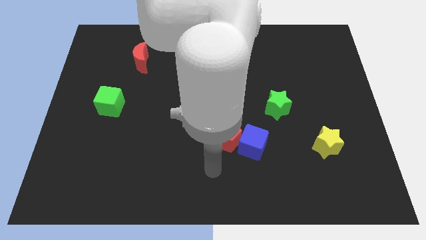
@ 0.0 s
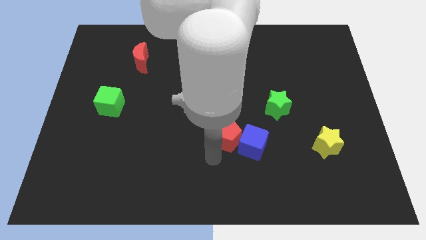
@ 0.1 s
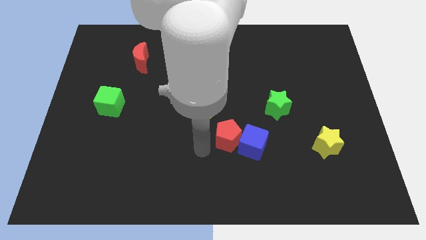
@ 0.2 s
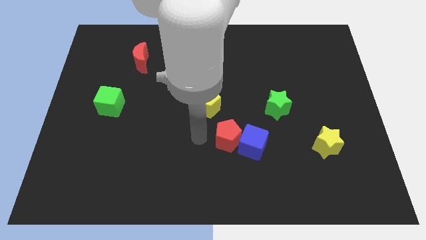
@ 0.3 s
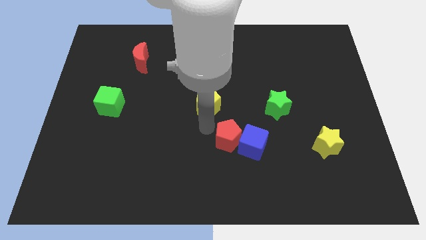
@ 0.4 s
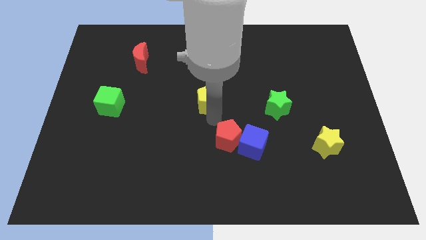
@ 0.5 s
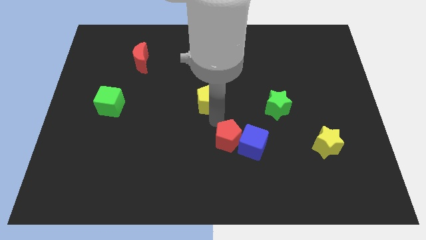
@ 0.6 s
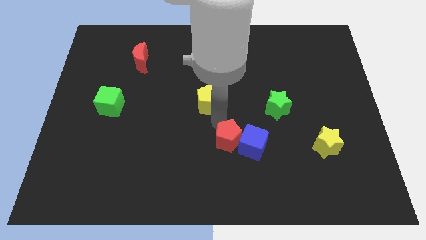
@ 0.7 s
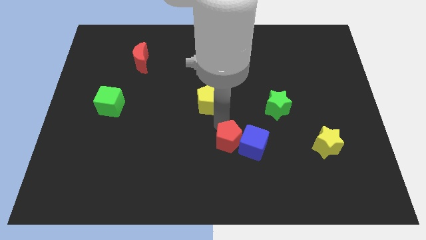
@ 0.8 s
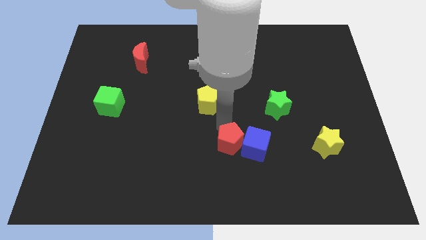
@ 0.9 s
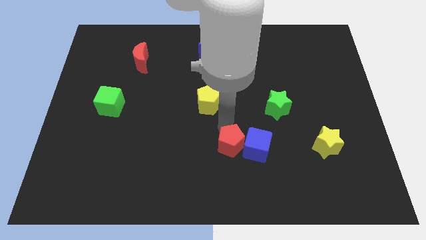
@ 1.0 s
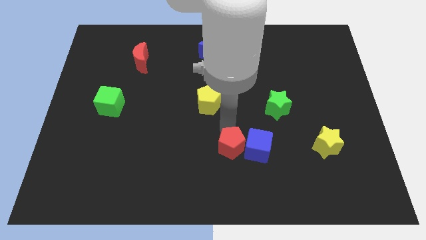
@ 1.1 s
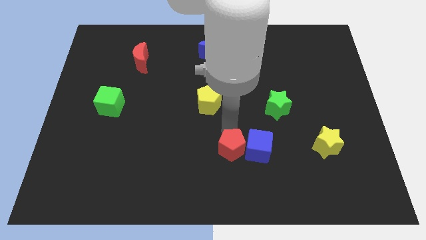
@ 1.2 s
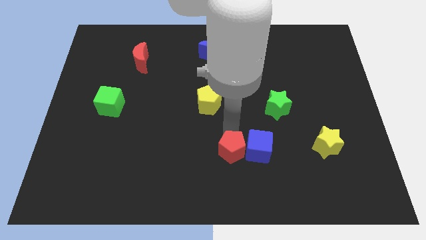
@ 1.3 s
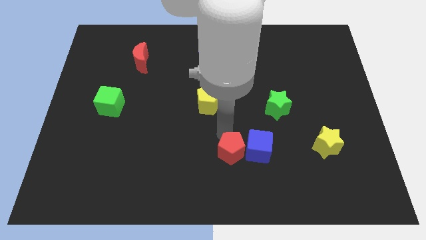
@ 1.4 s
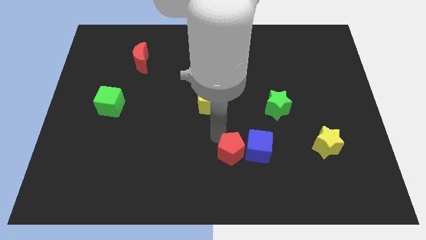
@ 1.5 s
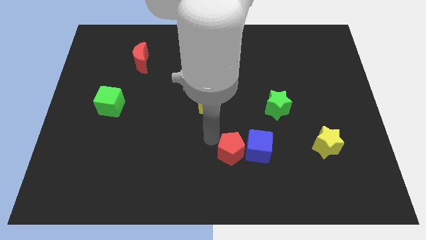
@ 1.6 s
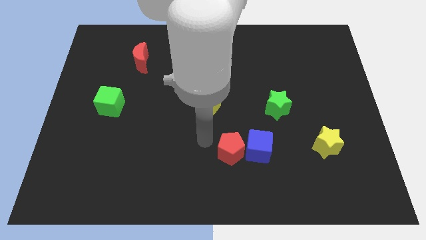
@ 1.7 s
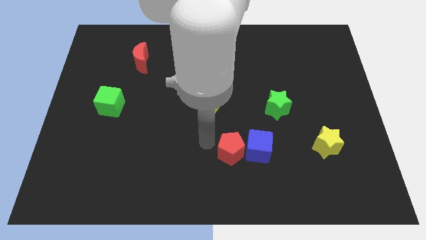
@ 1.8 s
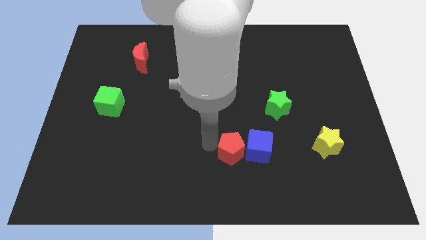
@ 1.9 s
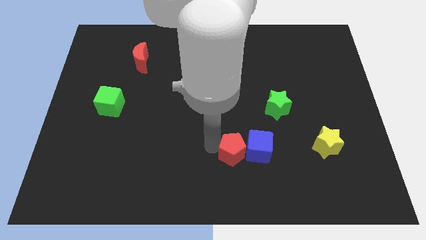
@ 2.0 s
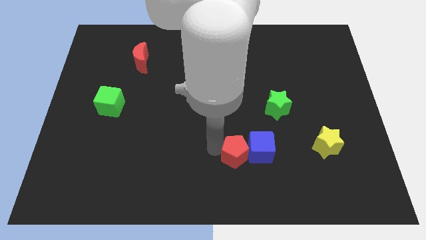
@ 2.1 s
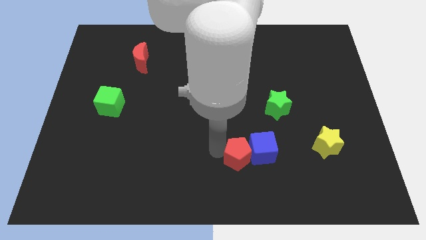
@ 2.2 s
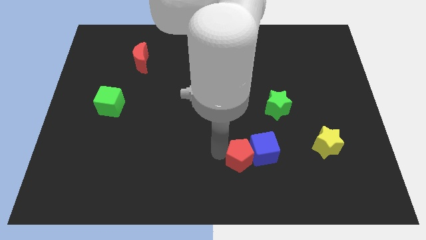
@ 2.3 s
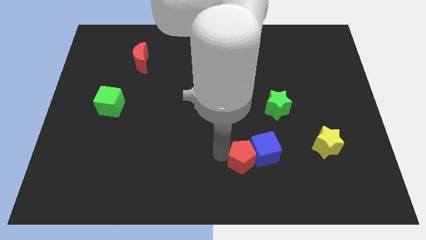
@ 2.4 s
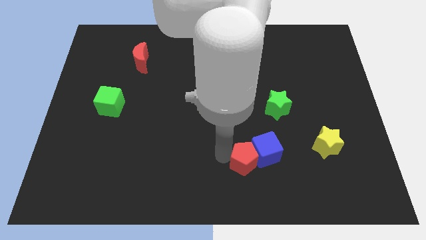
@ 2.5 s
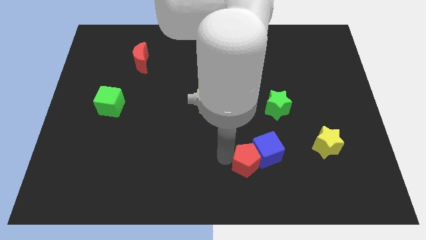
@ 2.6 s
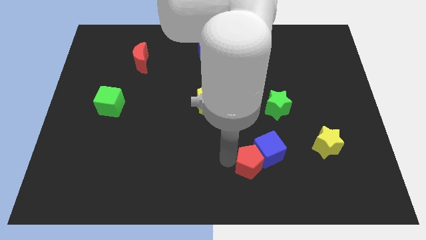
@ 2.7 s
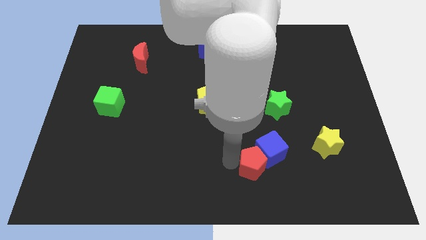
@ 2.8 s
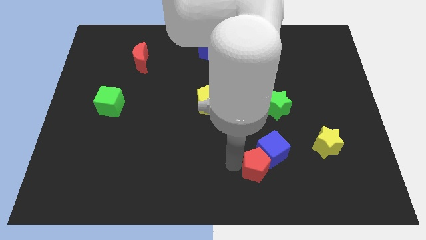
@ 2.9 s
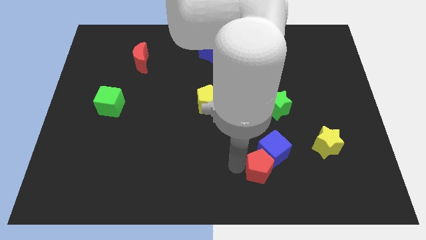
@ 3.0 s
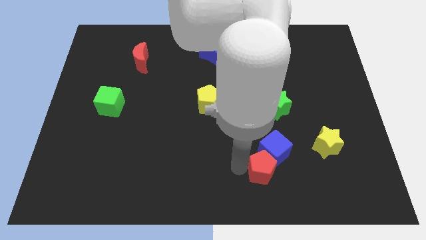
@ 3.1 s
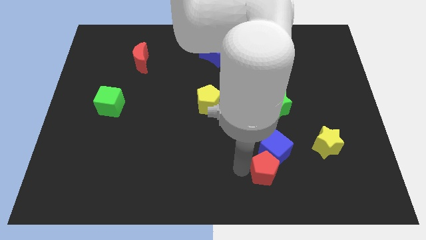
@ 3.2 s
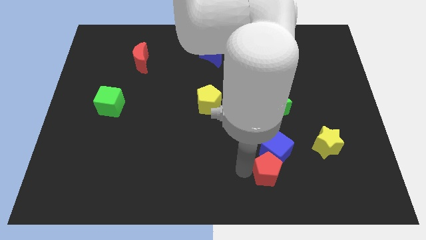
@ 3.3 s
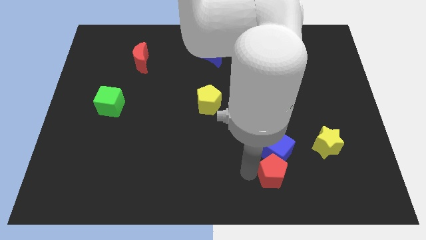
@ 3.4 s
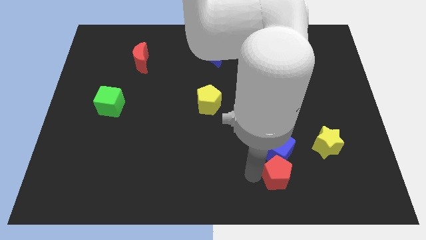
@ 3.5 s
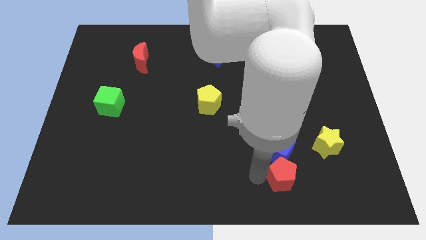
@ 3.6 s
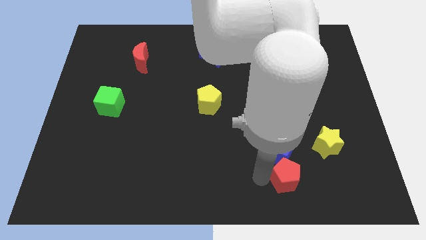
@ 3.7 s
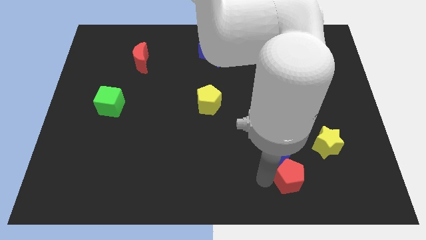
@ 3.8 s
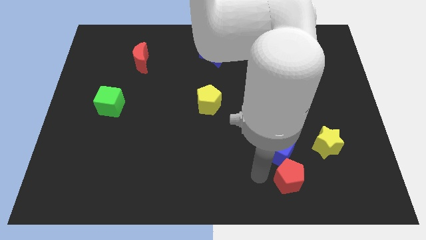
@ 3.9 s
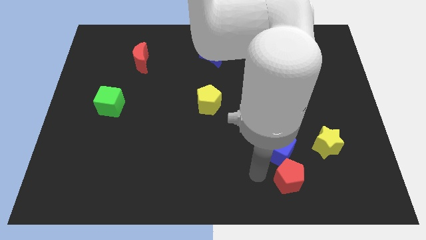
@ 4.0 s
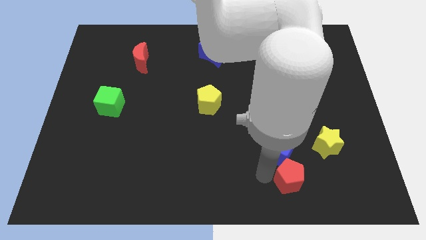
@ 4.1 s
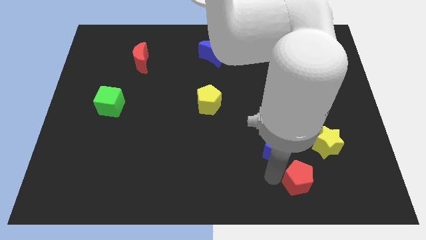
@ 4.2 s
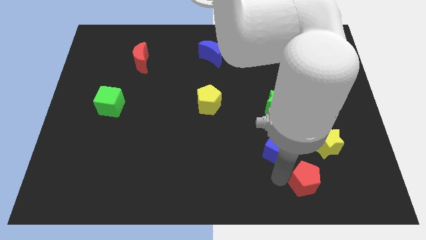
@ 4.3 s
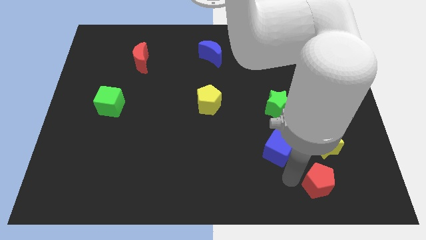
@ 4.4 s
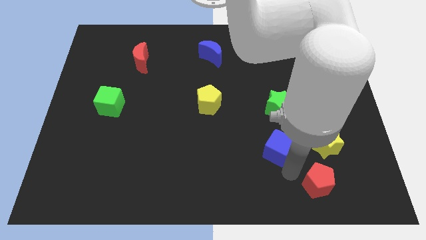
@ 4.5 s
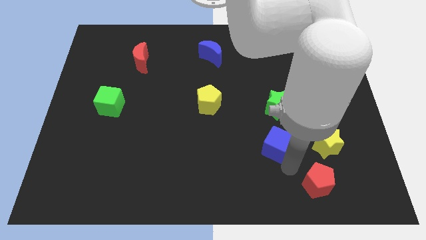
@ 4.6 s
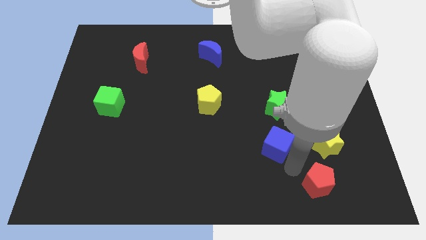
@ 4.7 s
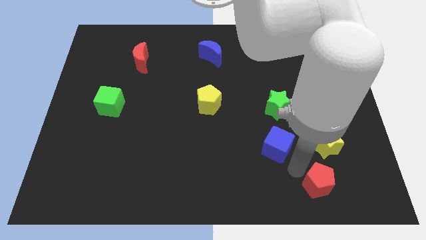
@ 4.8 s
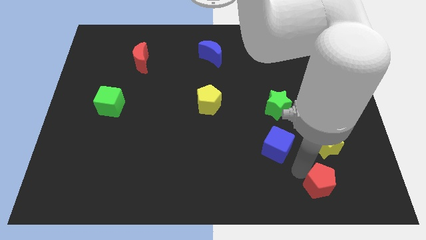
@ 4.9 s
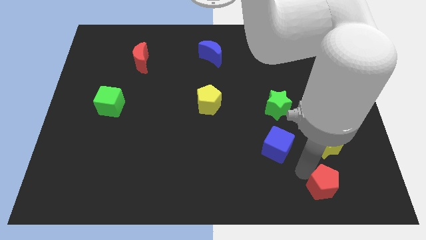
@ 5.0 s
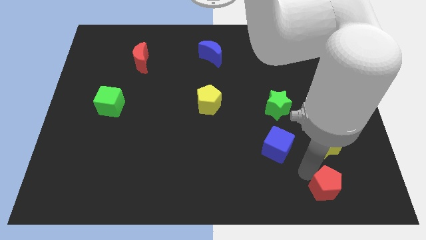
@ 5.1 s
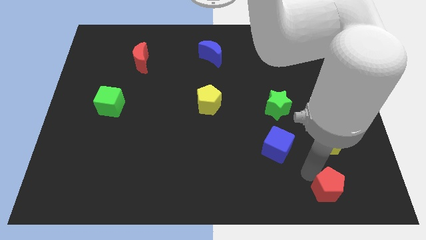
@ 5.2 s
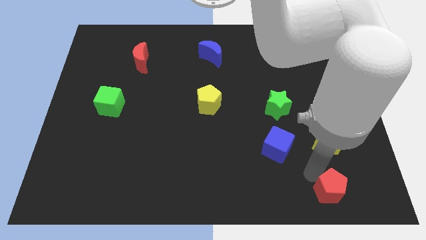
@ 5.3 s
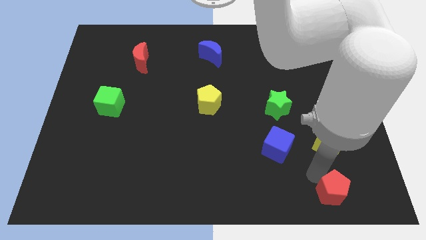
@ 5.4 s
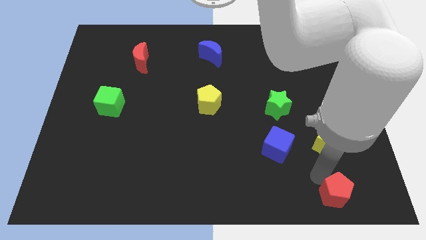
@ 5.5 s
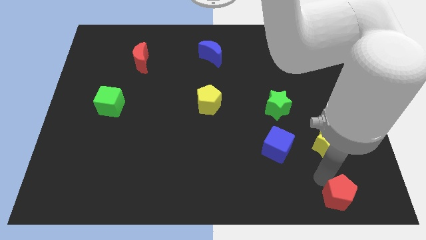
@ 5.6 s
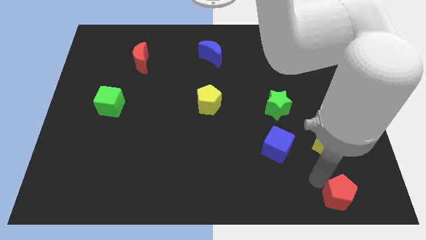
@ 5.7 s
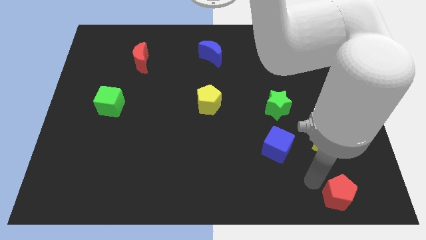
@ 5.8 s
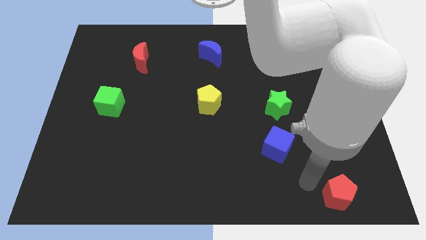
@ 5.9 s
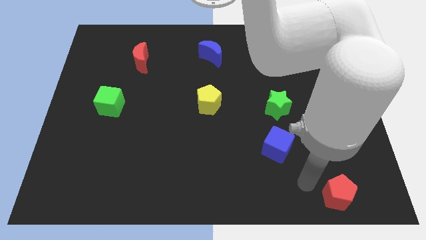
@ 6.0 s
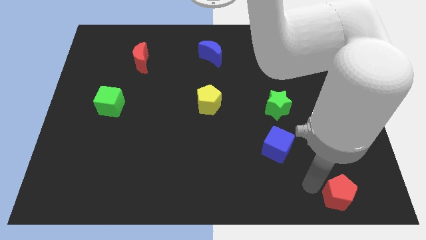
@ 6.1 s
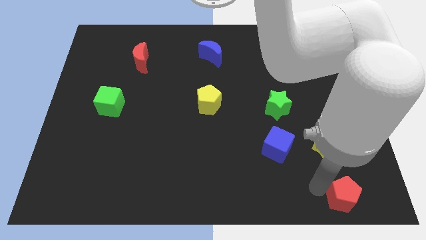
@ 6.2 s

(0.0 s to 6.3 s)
put the red pentagon to the bottom right
